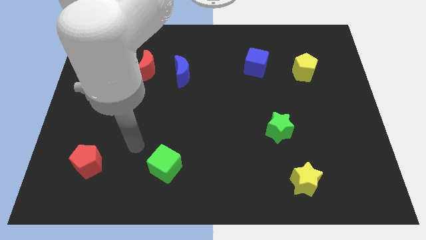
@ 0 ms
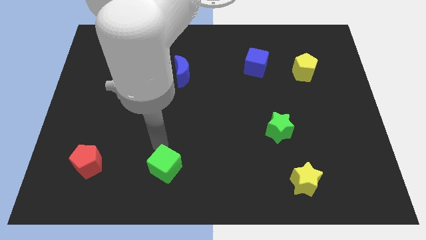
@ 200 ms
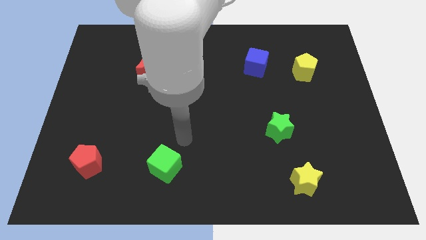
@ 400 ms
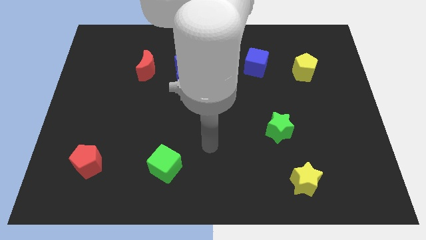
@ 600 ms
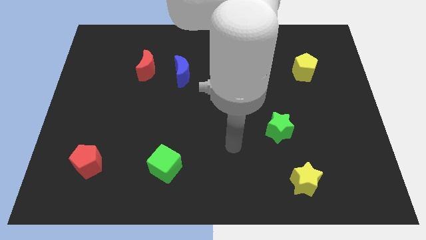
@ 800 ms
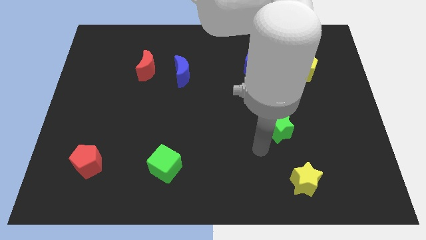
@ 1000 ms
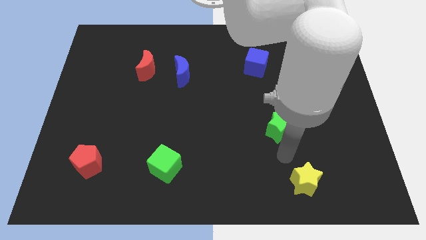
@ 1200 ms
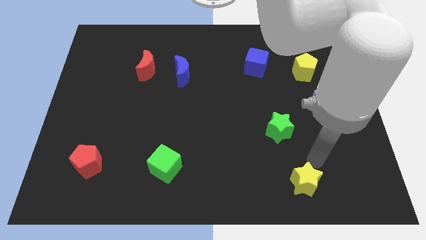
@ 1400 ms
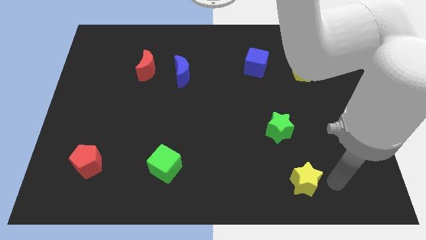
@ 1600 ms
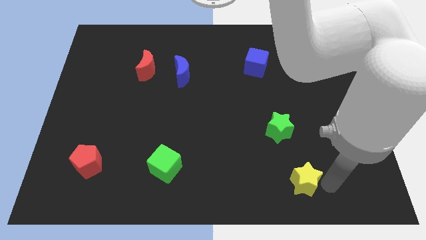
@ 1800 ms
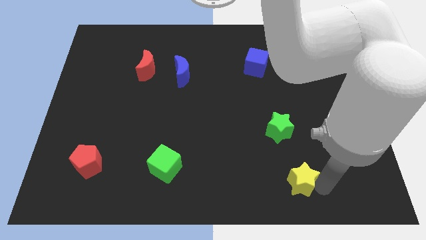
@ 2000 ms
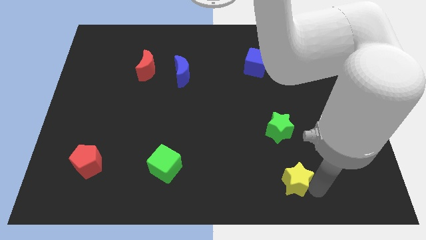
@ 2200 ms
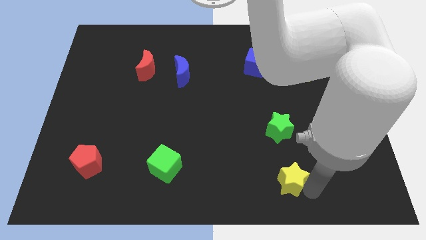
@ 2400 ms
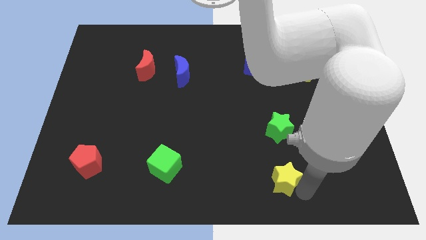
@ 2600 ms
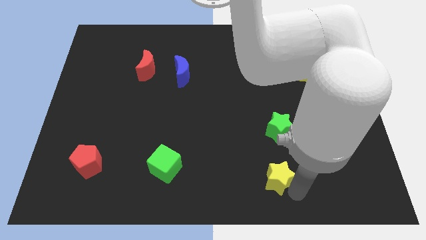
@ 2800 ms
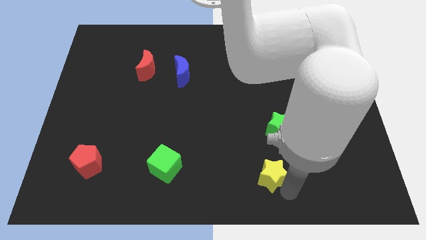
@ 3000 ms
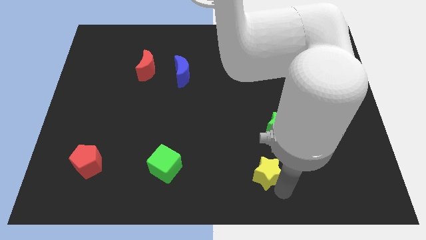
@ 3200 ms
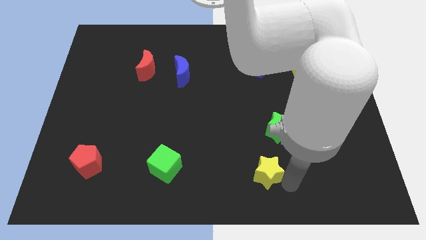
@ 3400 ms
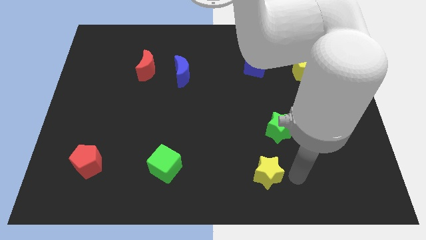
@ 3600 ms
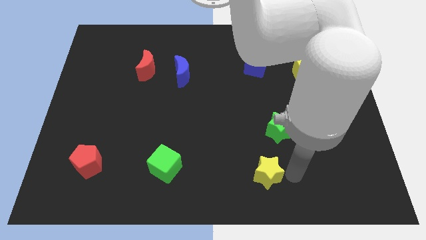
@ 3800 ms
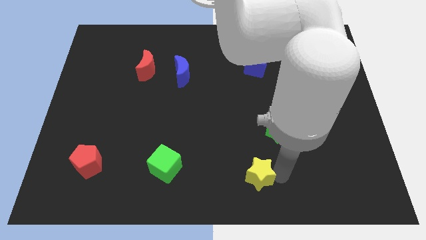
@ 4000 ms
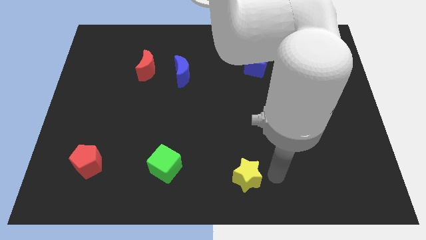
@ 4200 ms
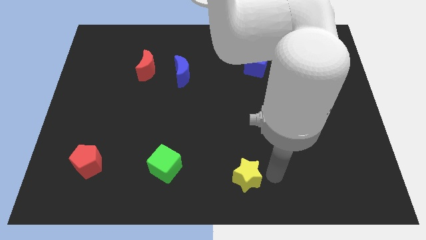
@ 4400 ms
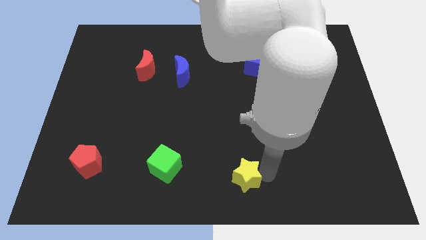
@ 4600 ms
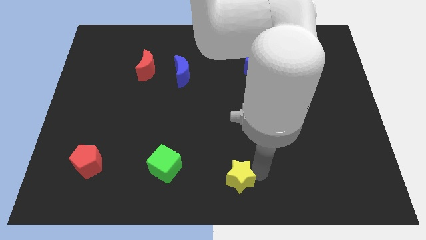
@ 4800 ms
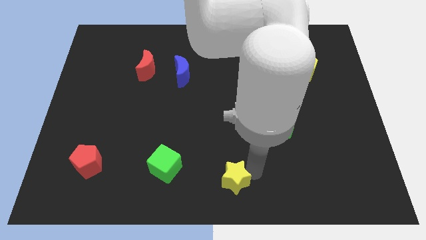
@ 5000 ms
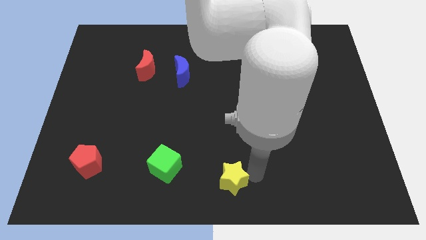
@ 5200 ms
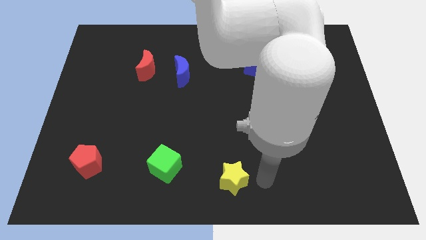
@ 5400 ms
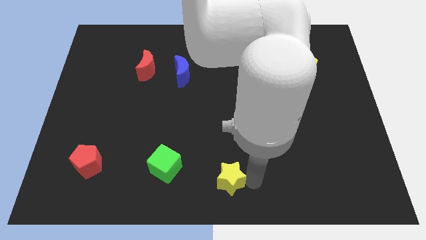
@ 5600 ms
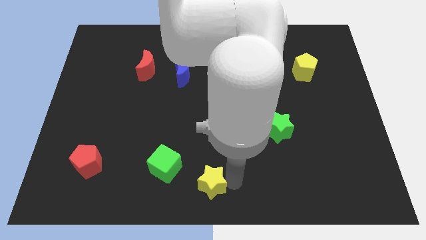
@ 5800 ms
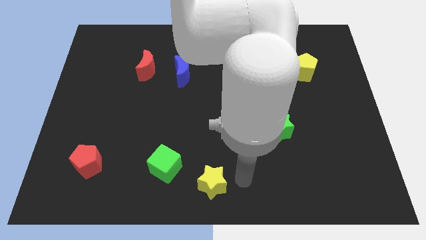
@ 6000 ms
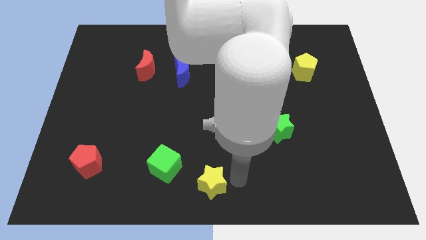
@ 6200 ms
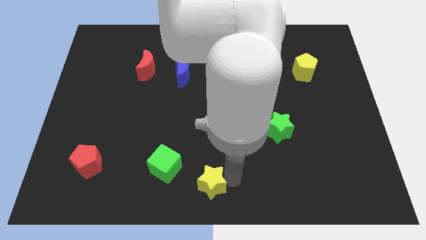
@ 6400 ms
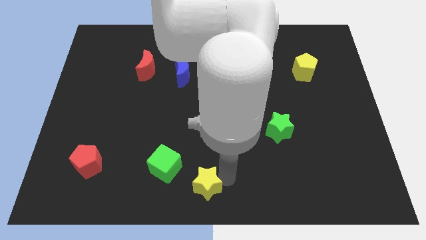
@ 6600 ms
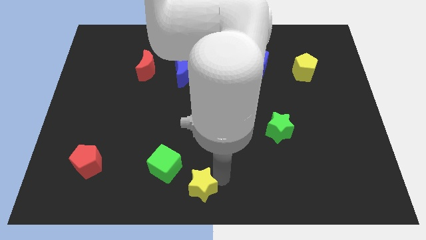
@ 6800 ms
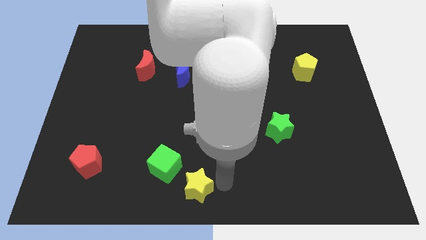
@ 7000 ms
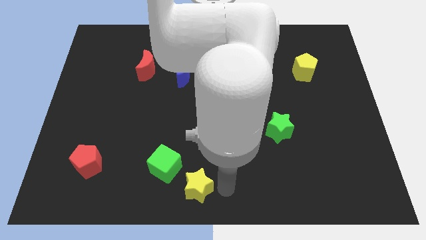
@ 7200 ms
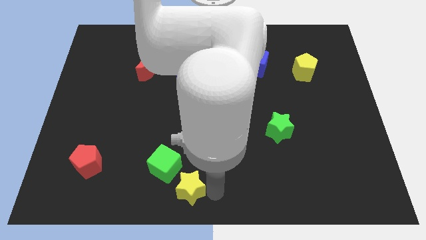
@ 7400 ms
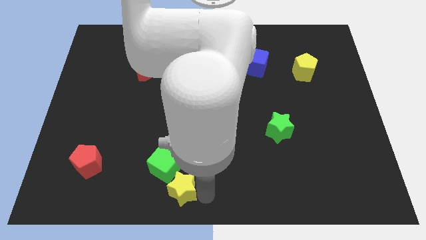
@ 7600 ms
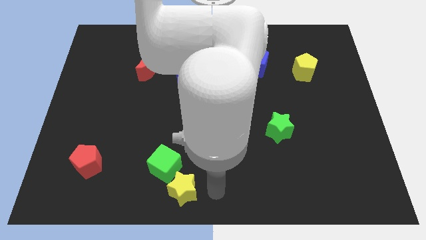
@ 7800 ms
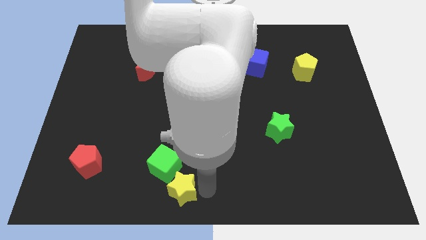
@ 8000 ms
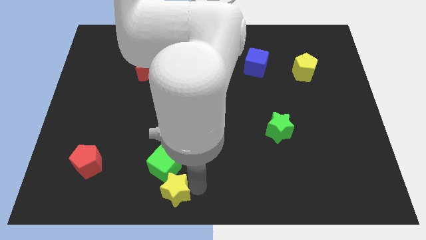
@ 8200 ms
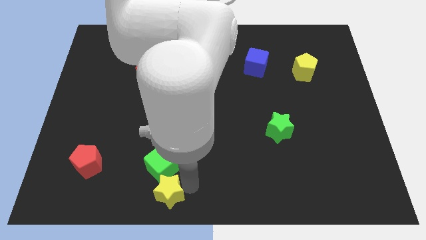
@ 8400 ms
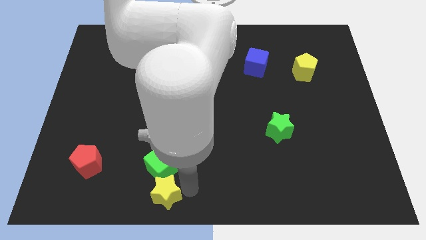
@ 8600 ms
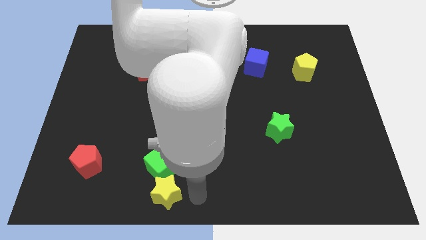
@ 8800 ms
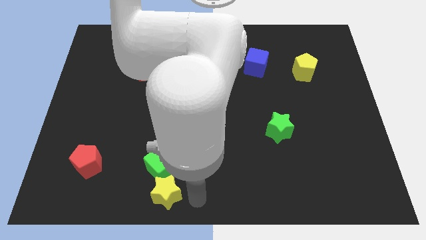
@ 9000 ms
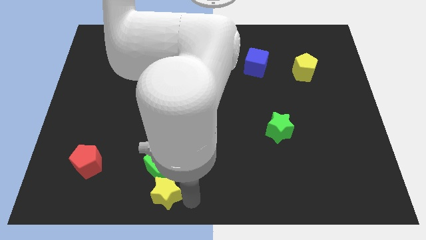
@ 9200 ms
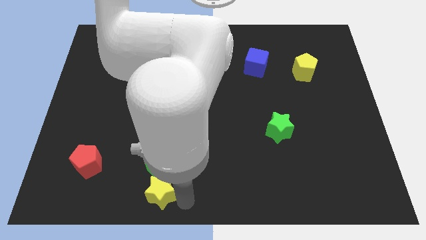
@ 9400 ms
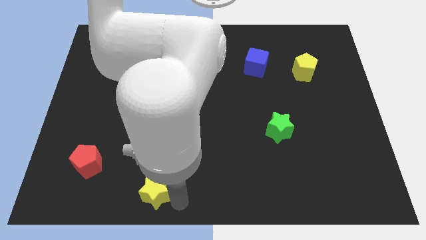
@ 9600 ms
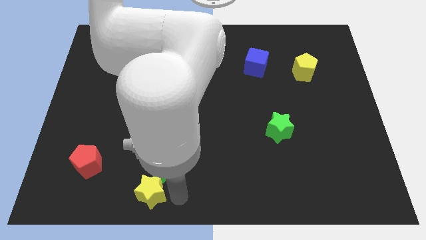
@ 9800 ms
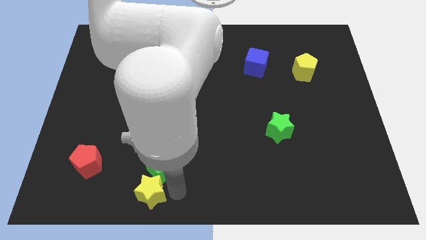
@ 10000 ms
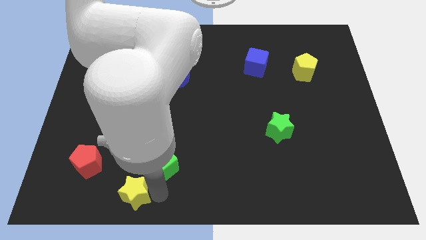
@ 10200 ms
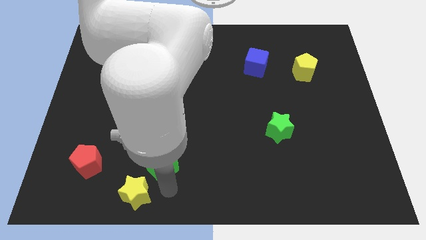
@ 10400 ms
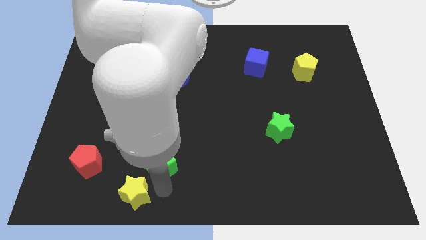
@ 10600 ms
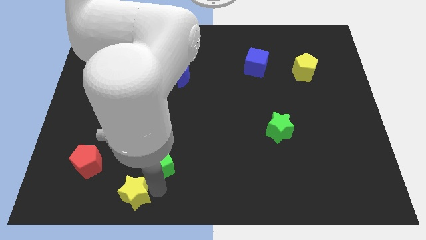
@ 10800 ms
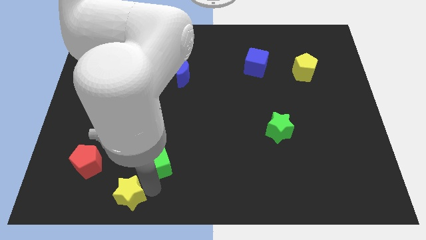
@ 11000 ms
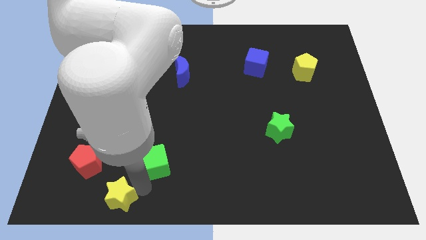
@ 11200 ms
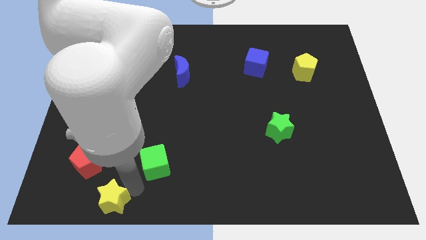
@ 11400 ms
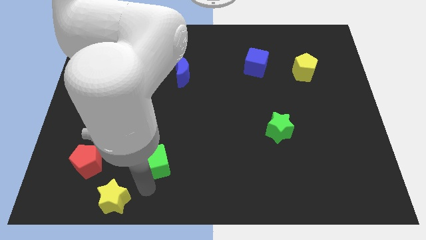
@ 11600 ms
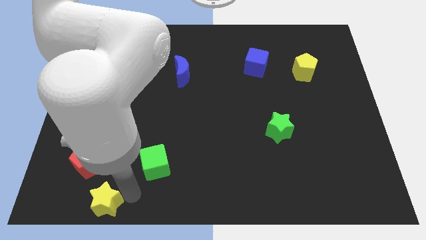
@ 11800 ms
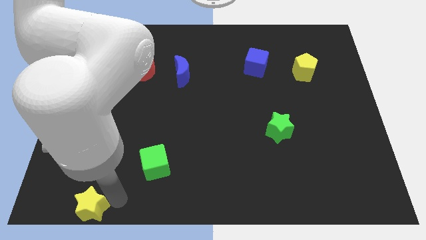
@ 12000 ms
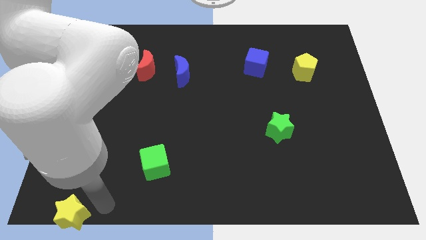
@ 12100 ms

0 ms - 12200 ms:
slide the yellow star to the lower left corner
